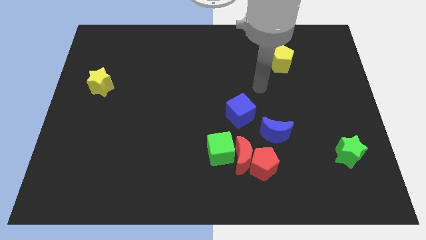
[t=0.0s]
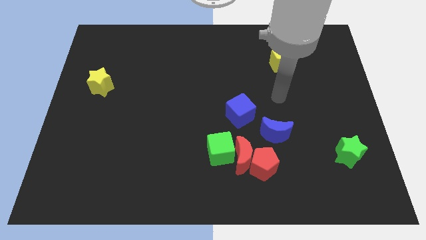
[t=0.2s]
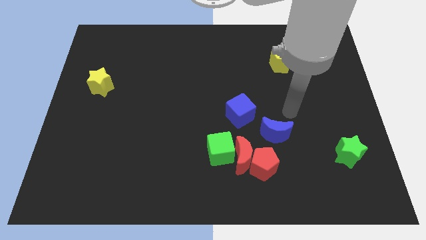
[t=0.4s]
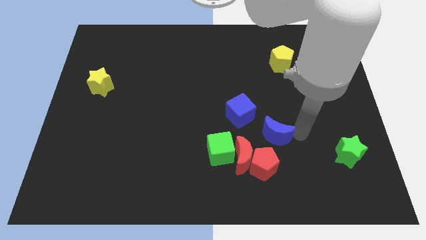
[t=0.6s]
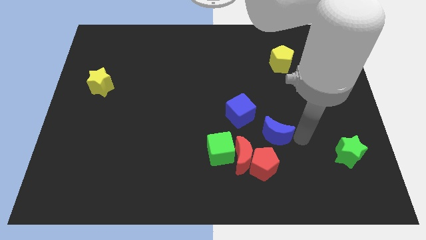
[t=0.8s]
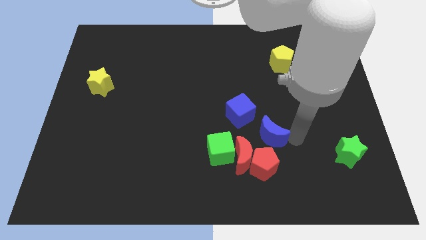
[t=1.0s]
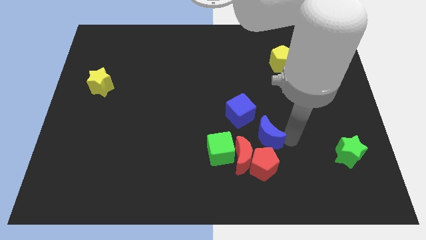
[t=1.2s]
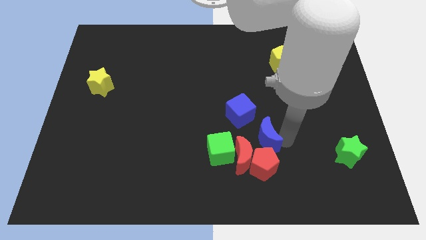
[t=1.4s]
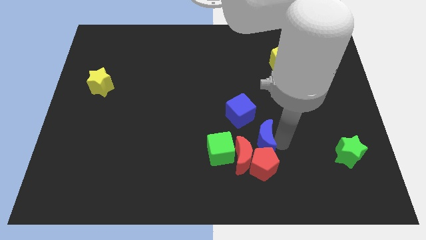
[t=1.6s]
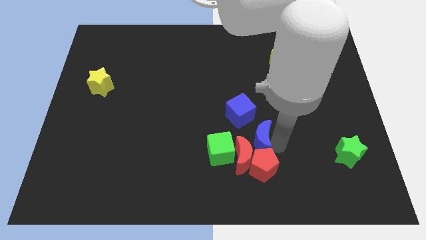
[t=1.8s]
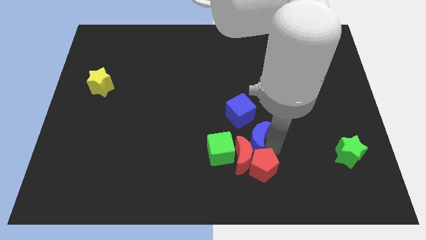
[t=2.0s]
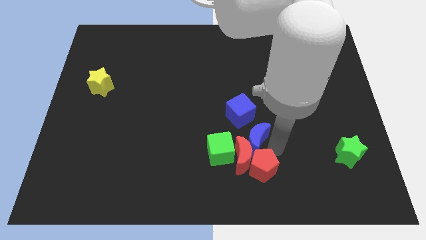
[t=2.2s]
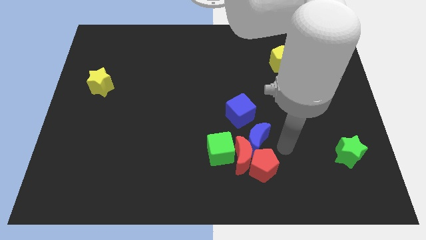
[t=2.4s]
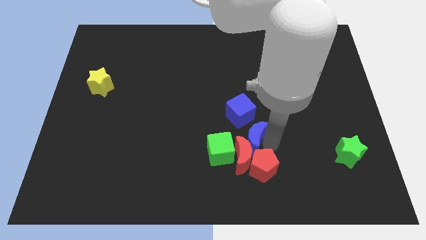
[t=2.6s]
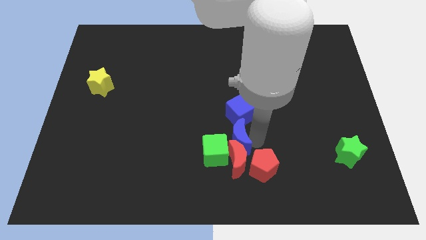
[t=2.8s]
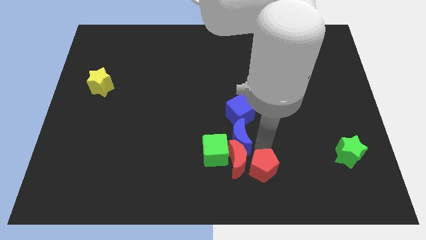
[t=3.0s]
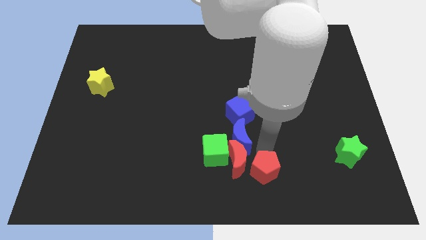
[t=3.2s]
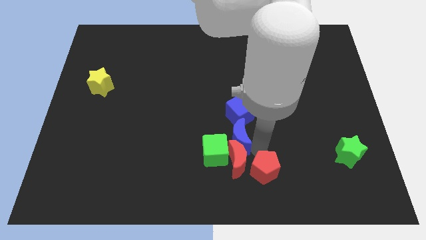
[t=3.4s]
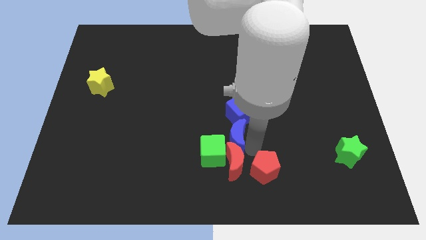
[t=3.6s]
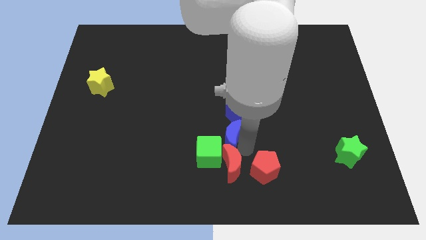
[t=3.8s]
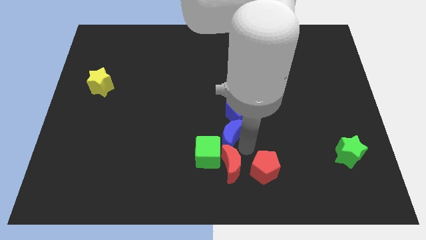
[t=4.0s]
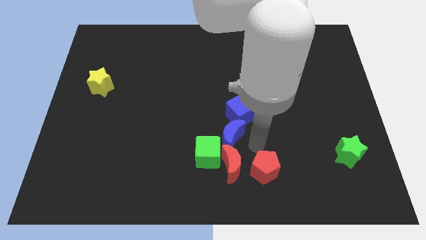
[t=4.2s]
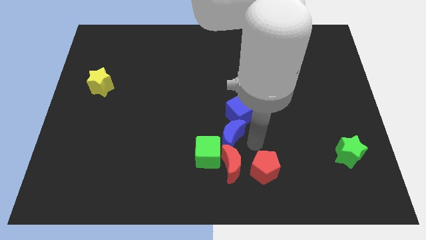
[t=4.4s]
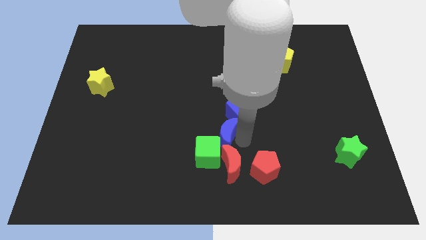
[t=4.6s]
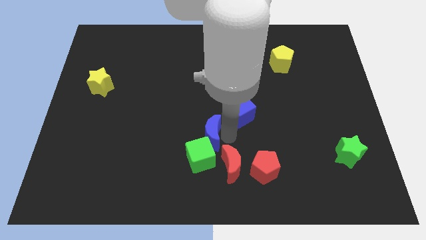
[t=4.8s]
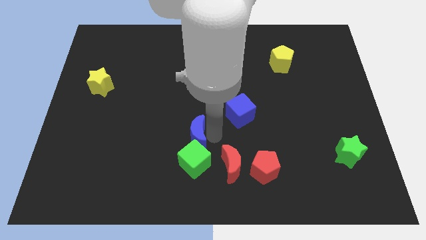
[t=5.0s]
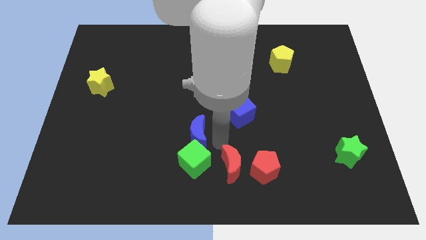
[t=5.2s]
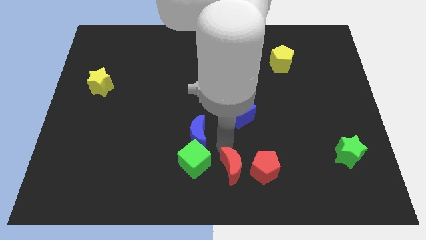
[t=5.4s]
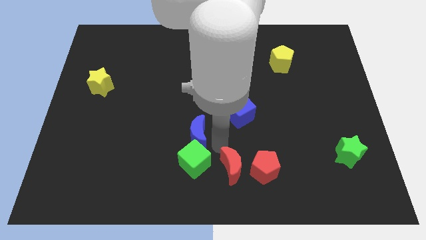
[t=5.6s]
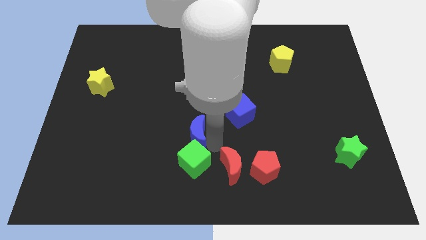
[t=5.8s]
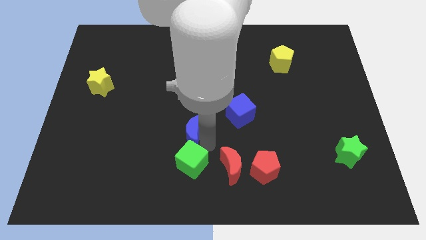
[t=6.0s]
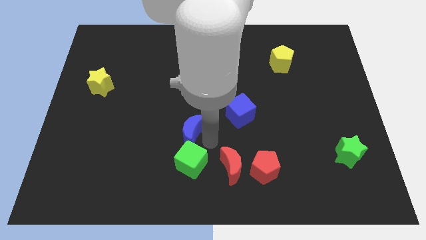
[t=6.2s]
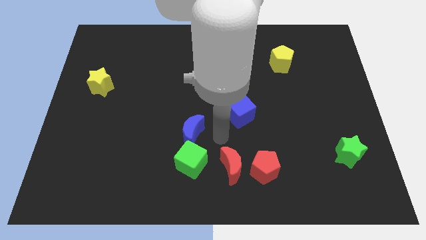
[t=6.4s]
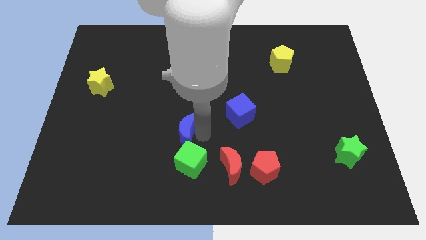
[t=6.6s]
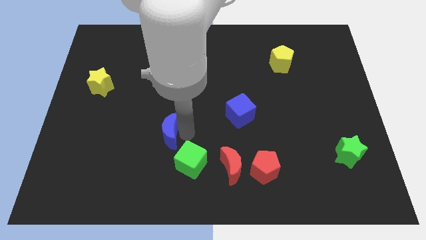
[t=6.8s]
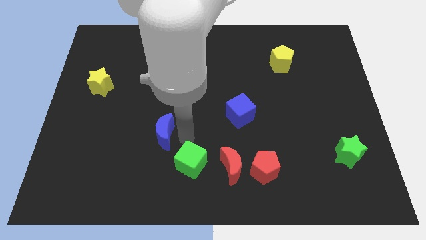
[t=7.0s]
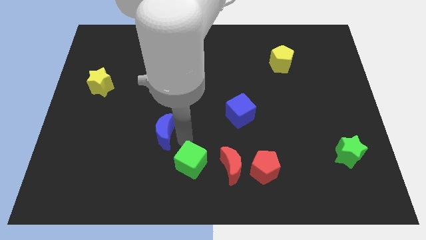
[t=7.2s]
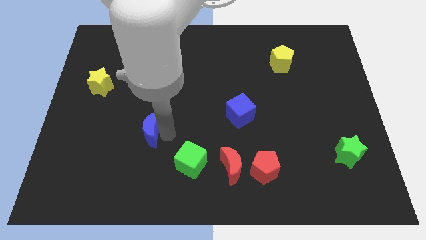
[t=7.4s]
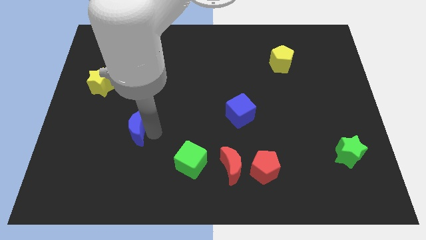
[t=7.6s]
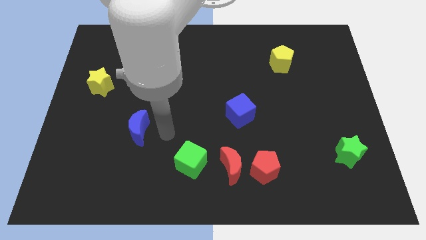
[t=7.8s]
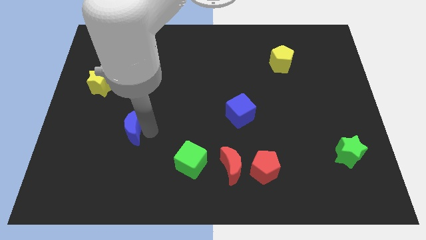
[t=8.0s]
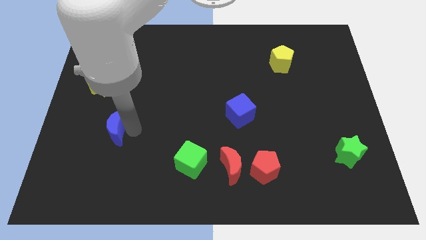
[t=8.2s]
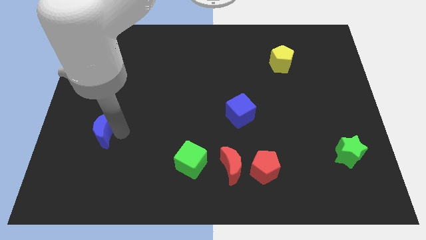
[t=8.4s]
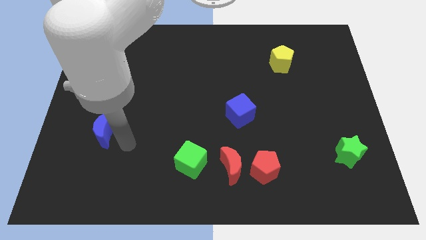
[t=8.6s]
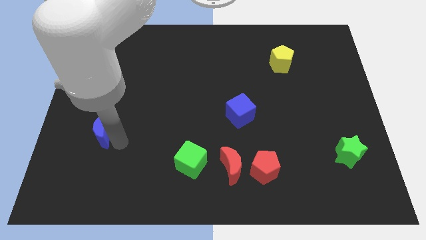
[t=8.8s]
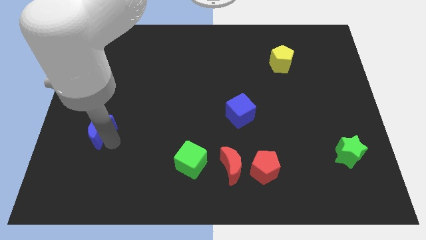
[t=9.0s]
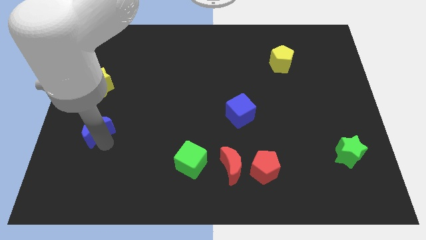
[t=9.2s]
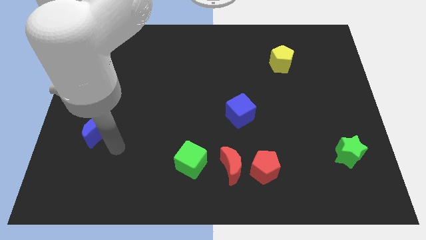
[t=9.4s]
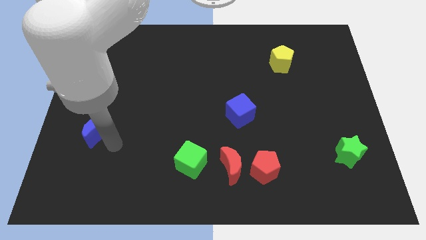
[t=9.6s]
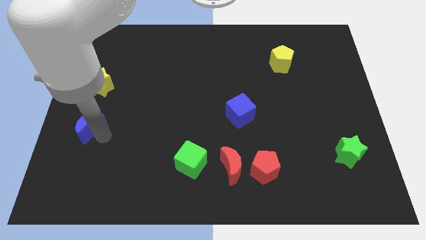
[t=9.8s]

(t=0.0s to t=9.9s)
slide the blue moon to the left side of the board

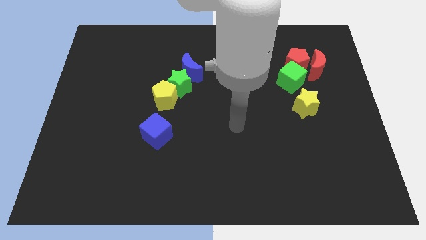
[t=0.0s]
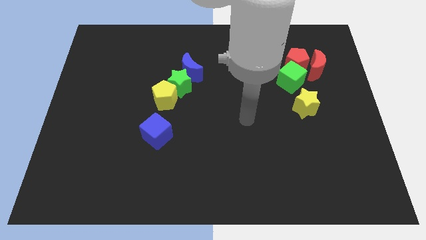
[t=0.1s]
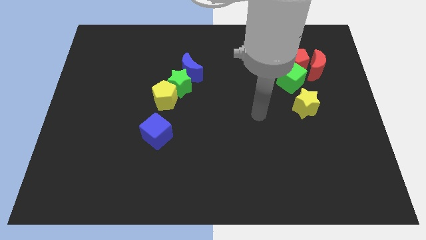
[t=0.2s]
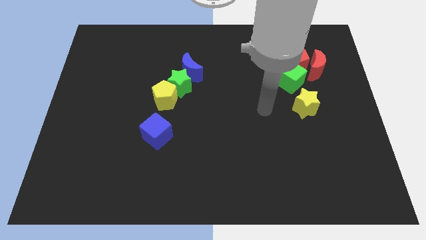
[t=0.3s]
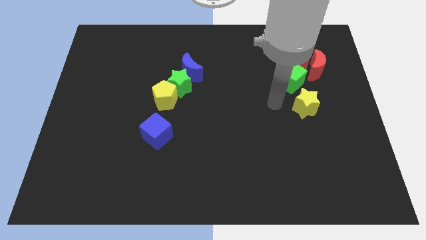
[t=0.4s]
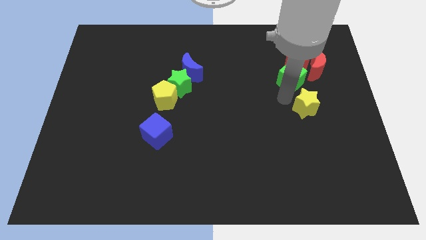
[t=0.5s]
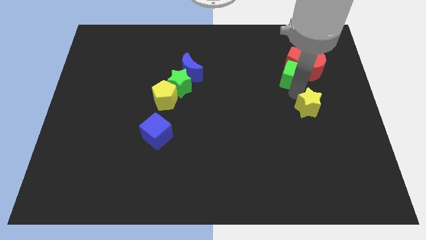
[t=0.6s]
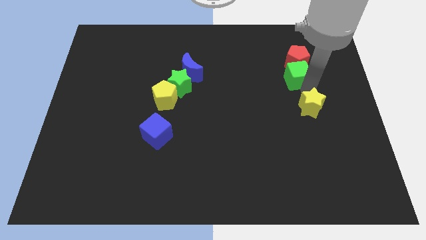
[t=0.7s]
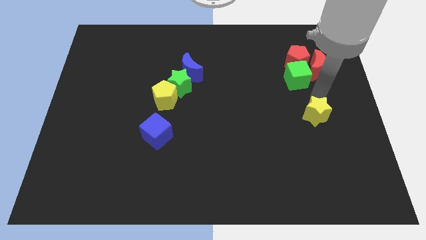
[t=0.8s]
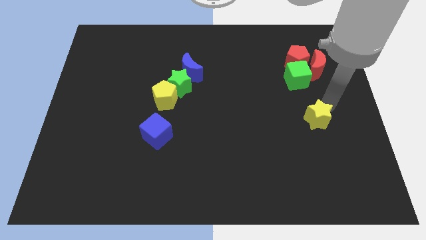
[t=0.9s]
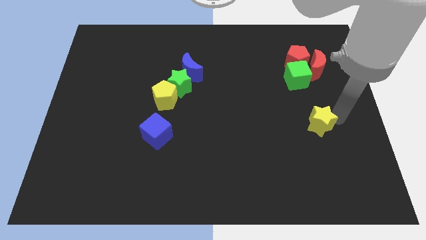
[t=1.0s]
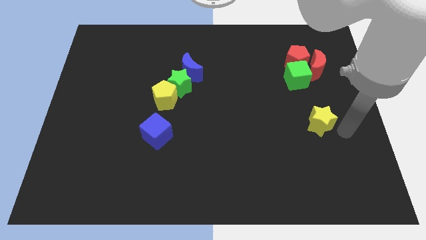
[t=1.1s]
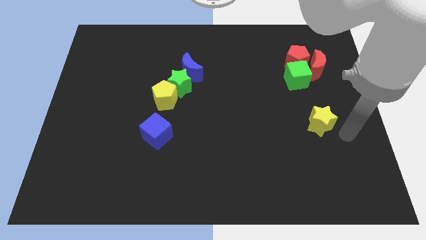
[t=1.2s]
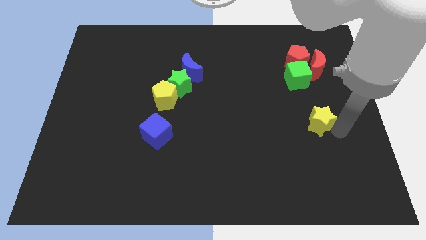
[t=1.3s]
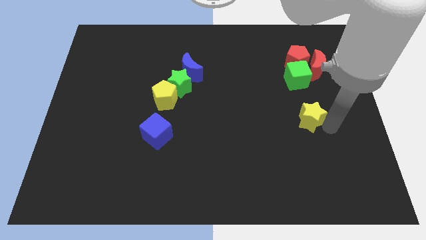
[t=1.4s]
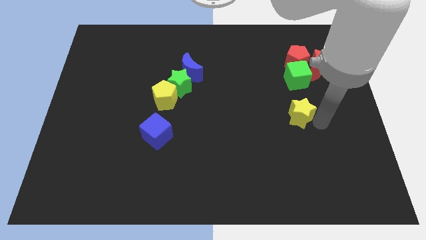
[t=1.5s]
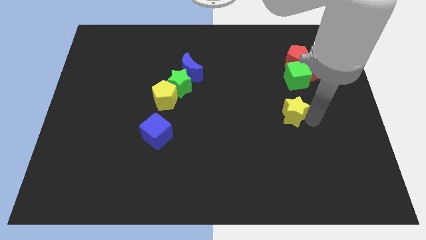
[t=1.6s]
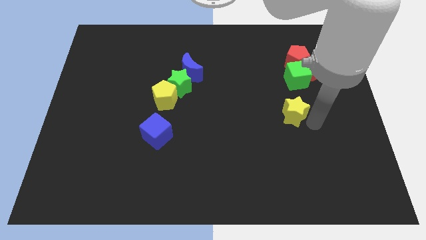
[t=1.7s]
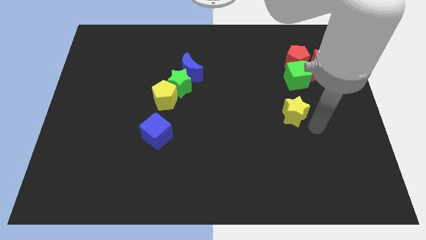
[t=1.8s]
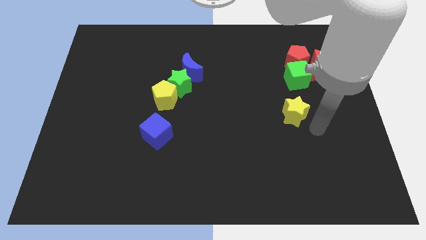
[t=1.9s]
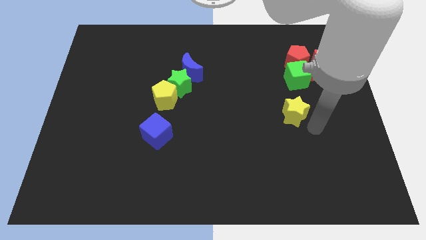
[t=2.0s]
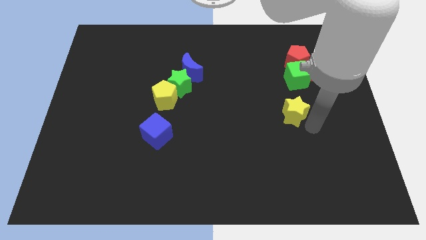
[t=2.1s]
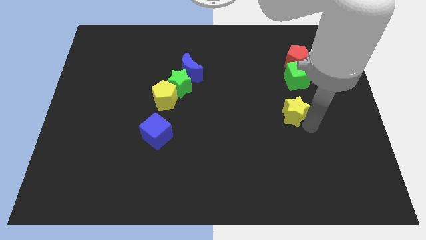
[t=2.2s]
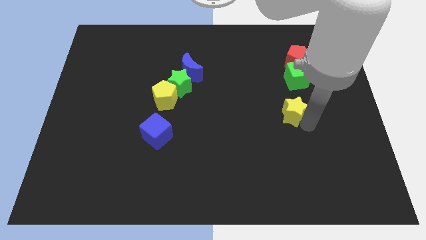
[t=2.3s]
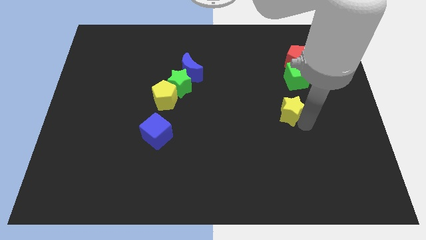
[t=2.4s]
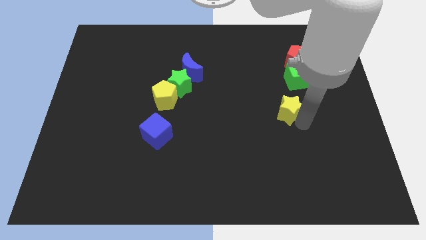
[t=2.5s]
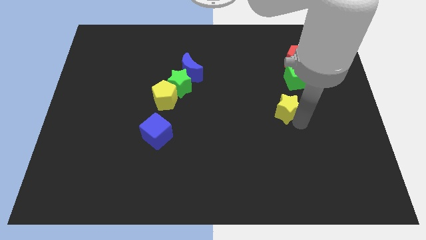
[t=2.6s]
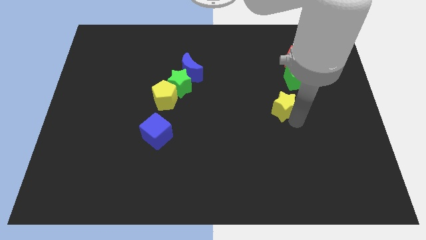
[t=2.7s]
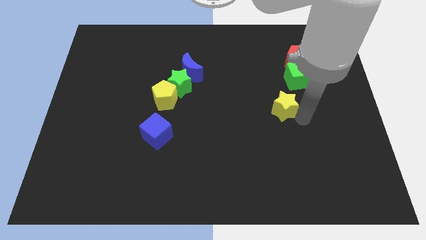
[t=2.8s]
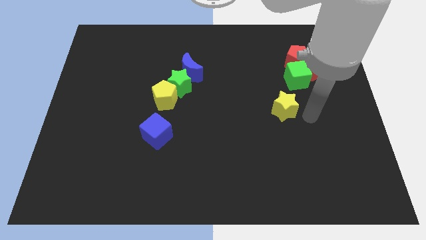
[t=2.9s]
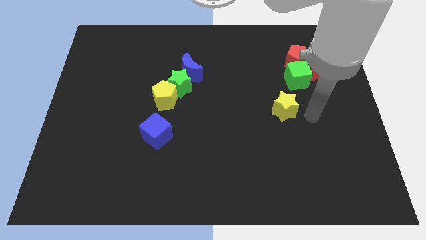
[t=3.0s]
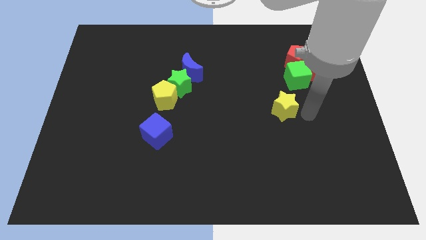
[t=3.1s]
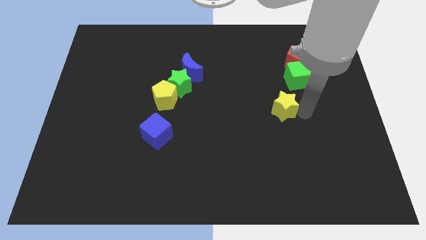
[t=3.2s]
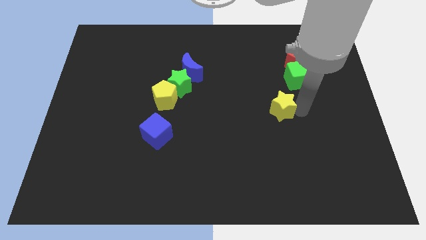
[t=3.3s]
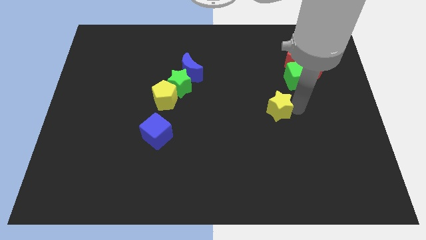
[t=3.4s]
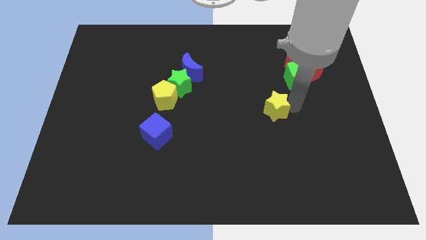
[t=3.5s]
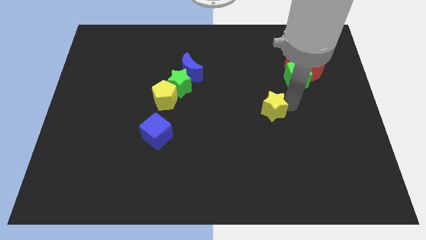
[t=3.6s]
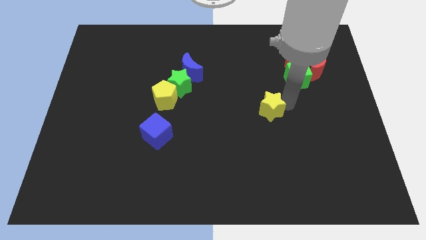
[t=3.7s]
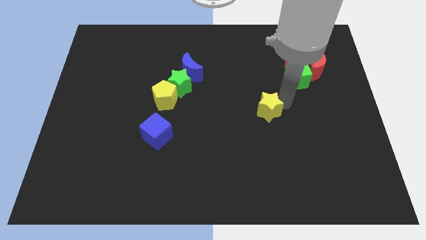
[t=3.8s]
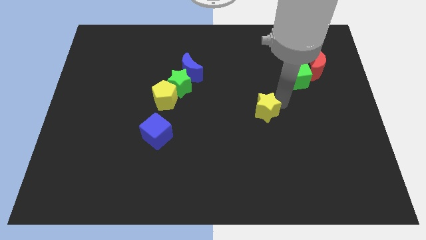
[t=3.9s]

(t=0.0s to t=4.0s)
move the yellow star to the middle
